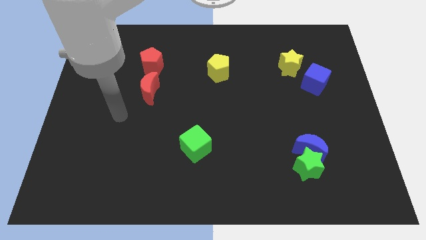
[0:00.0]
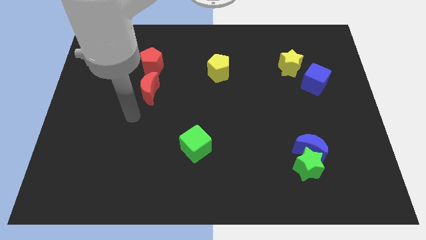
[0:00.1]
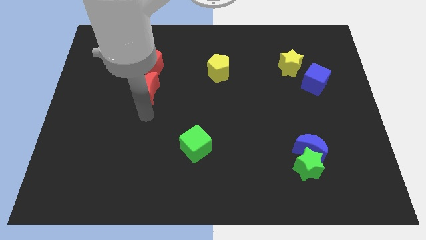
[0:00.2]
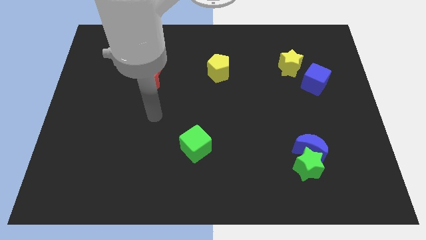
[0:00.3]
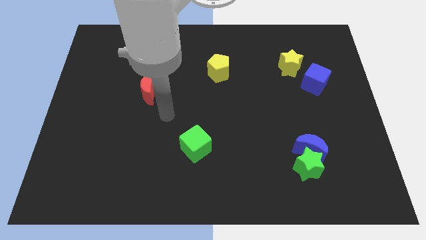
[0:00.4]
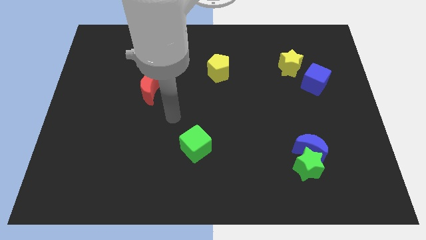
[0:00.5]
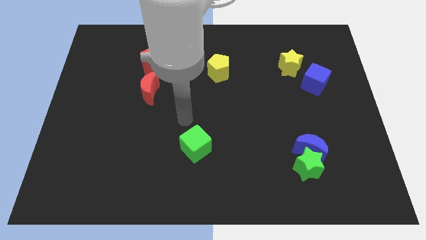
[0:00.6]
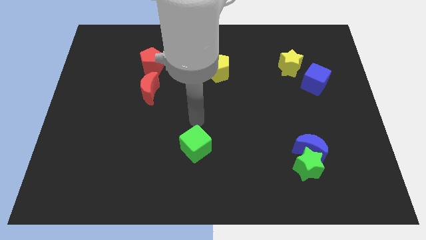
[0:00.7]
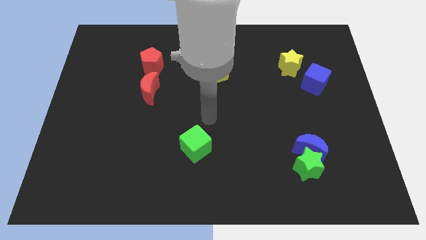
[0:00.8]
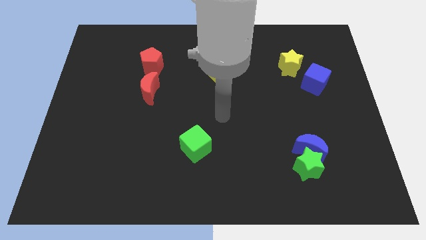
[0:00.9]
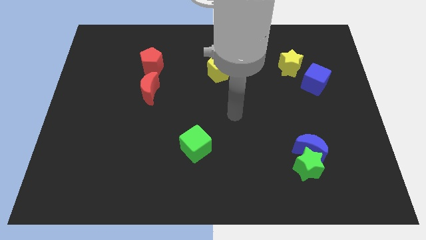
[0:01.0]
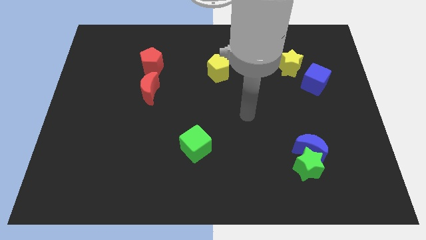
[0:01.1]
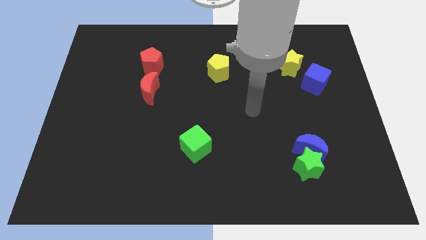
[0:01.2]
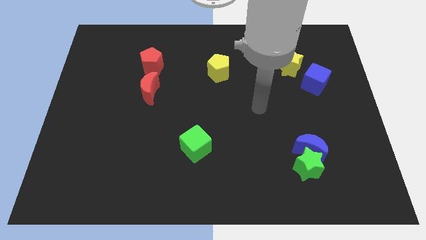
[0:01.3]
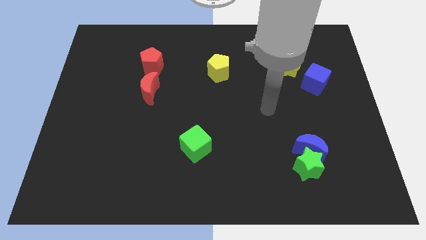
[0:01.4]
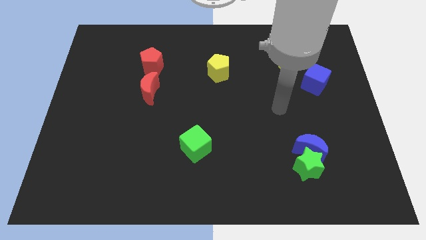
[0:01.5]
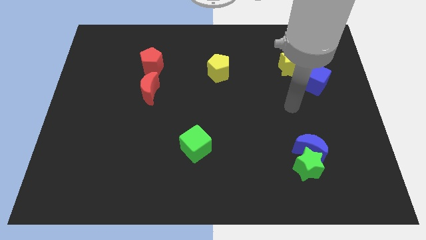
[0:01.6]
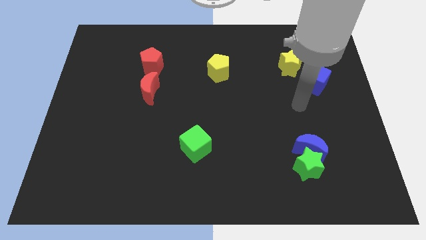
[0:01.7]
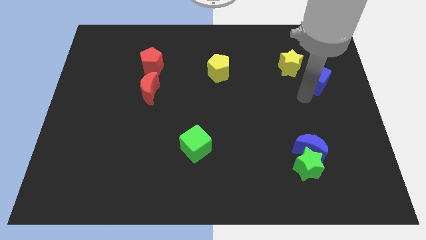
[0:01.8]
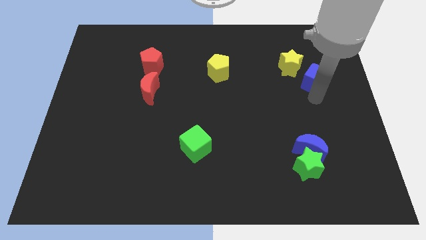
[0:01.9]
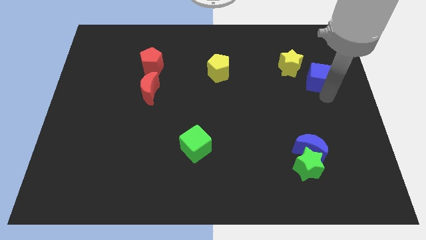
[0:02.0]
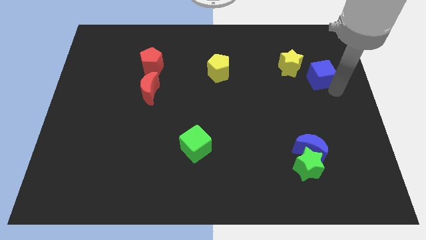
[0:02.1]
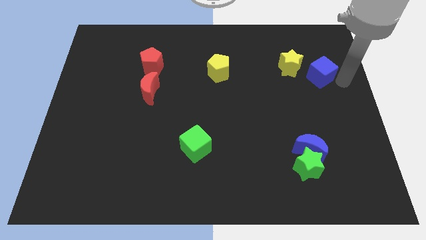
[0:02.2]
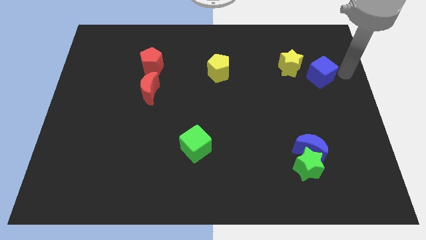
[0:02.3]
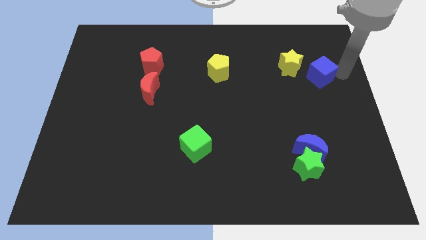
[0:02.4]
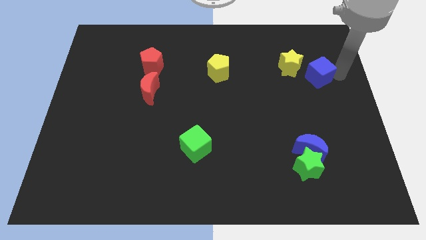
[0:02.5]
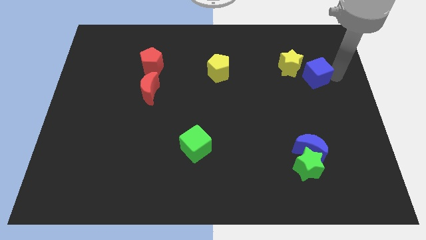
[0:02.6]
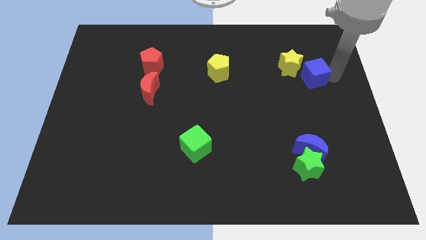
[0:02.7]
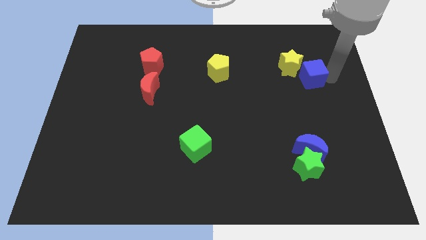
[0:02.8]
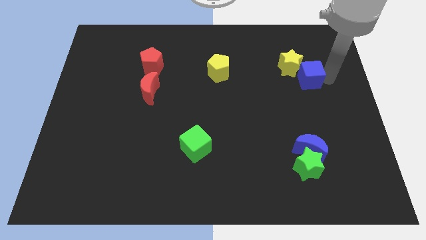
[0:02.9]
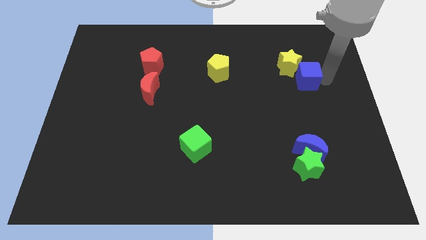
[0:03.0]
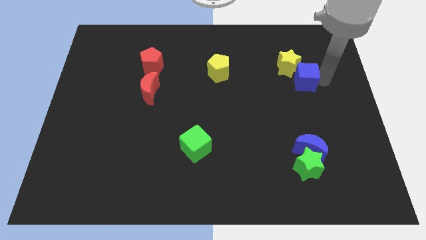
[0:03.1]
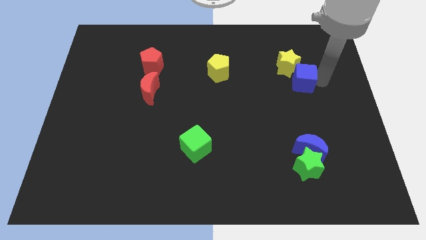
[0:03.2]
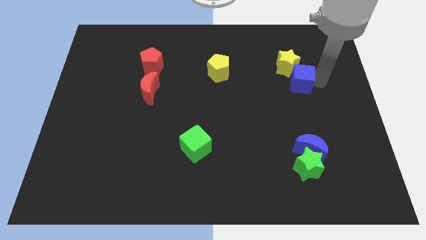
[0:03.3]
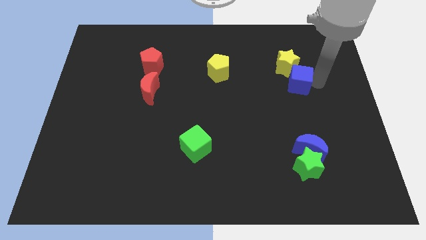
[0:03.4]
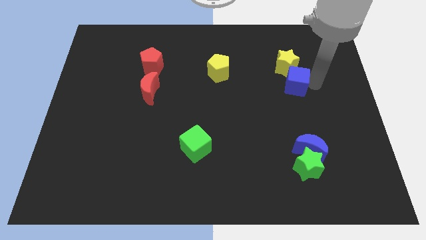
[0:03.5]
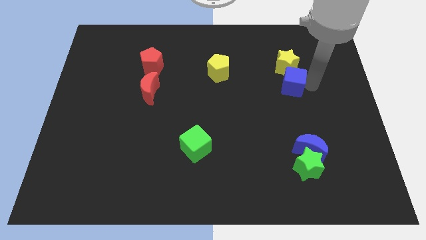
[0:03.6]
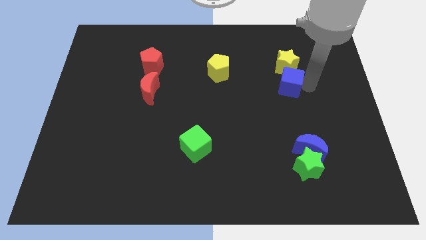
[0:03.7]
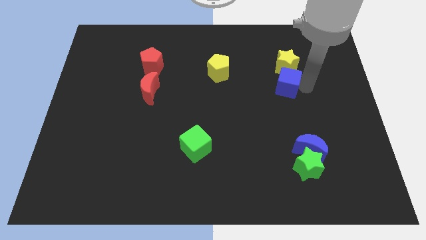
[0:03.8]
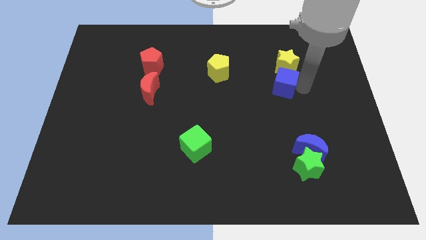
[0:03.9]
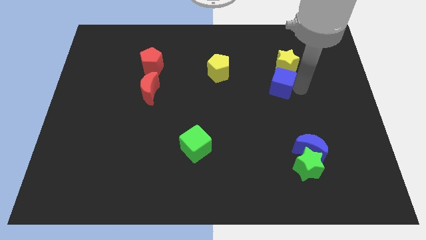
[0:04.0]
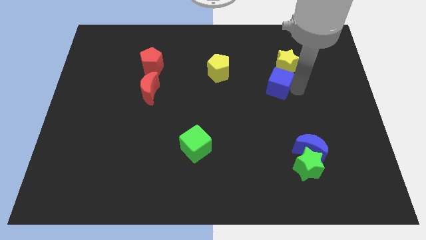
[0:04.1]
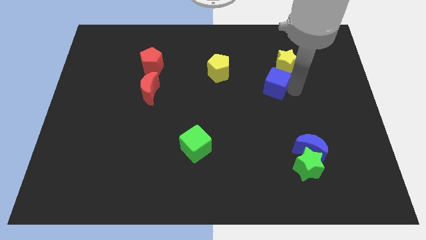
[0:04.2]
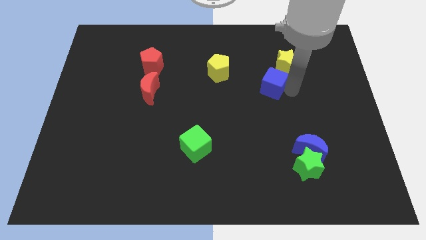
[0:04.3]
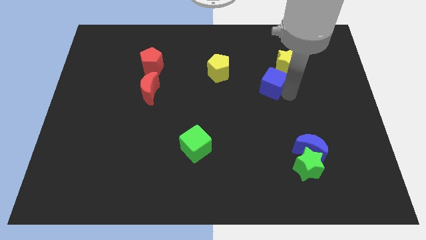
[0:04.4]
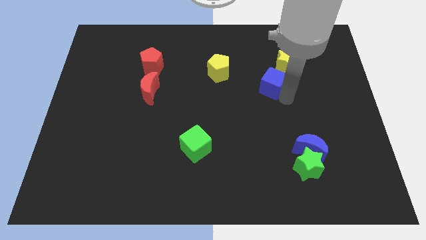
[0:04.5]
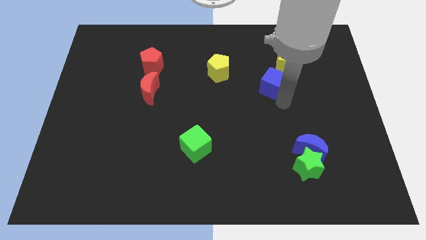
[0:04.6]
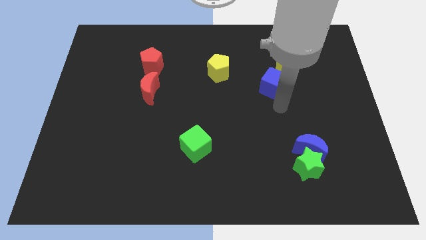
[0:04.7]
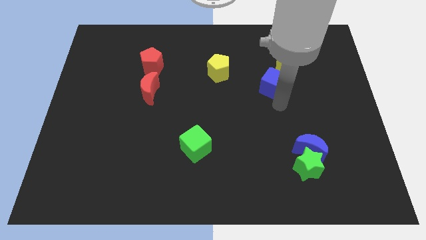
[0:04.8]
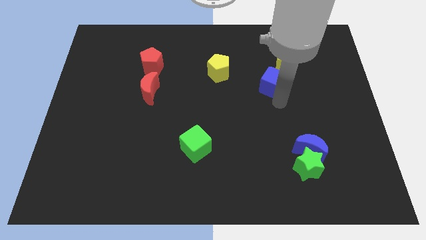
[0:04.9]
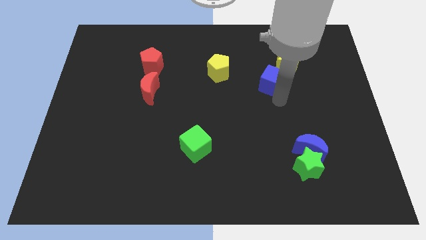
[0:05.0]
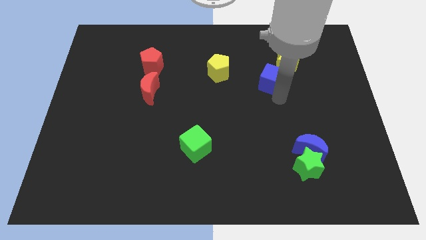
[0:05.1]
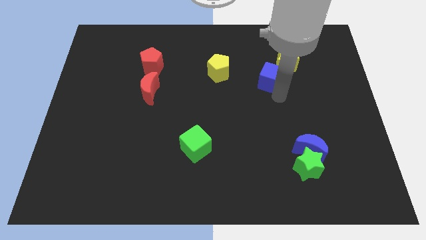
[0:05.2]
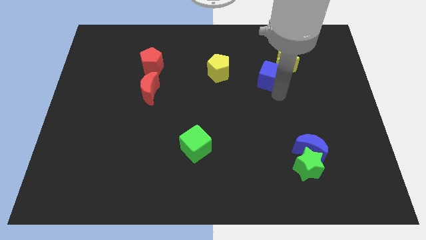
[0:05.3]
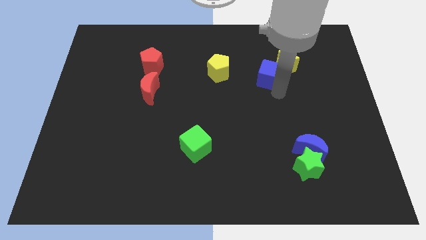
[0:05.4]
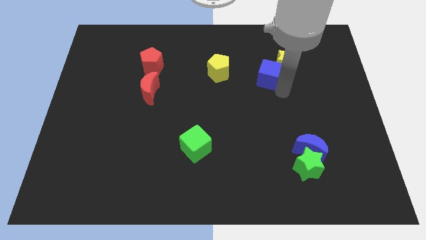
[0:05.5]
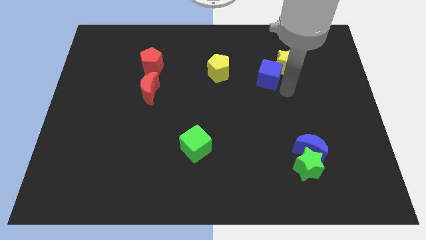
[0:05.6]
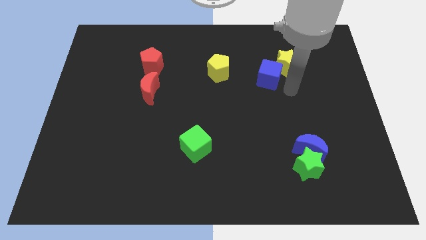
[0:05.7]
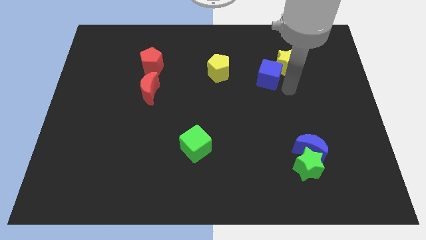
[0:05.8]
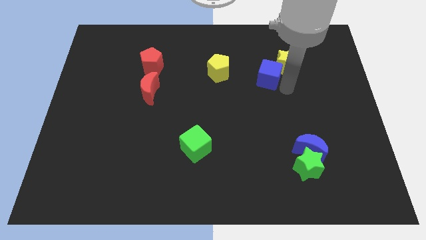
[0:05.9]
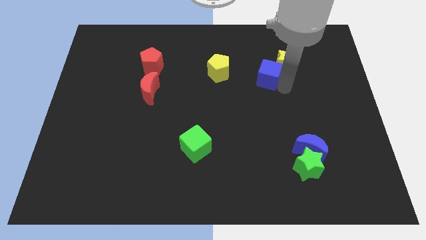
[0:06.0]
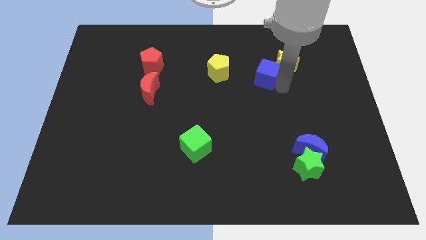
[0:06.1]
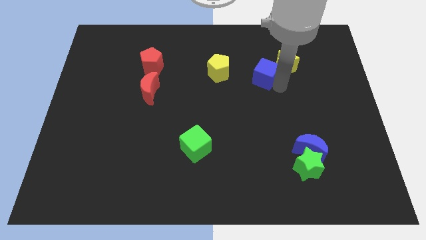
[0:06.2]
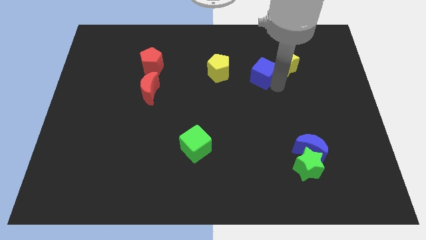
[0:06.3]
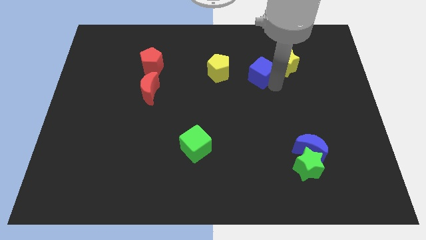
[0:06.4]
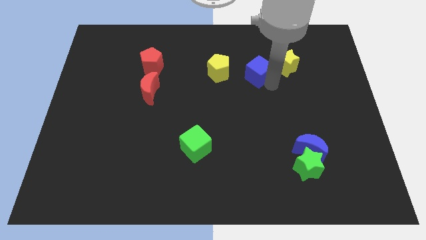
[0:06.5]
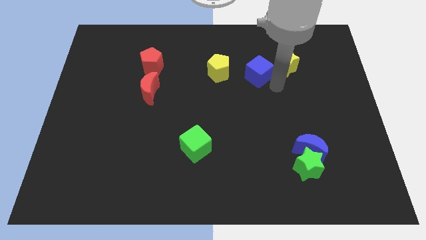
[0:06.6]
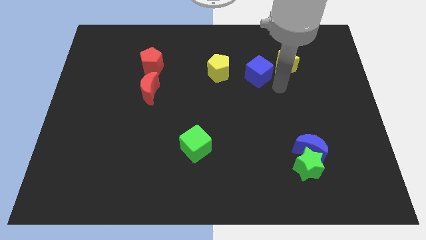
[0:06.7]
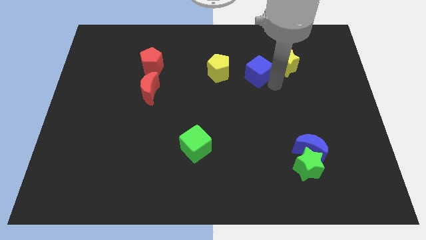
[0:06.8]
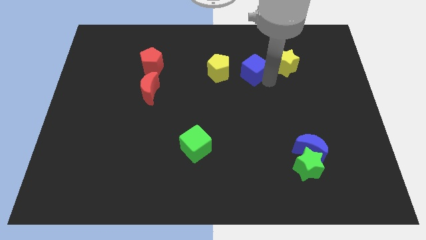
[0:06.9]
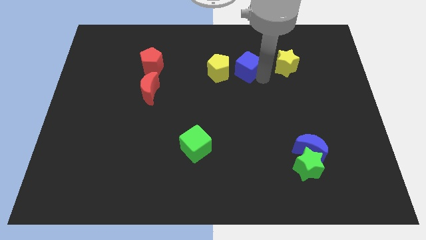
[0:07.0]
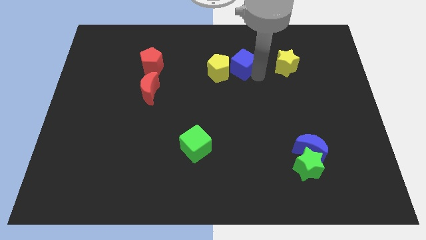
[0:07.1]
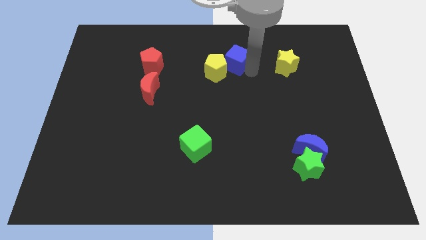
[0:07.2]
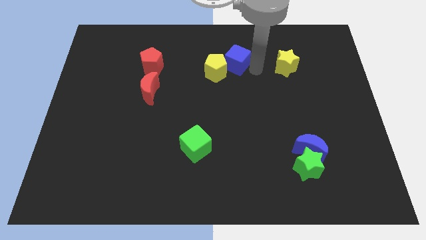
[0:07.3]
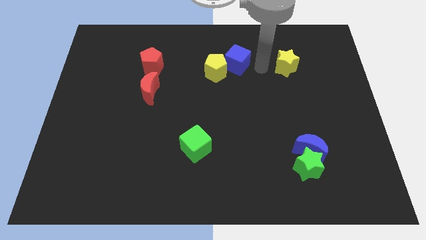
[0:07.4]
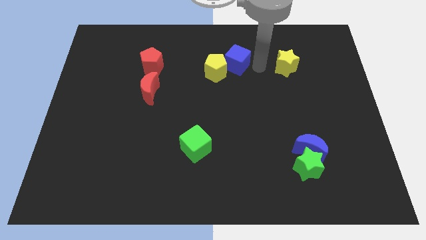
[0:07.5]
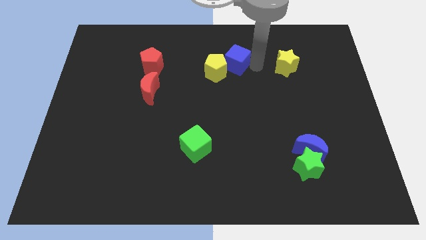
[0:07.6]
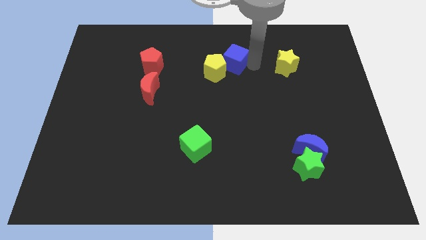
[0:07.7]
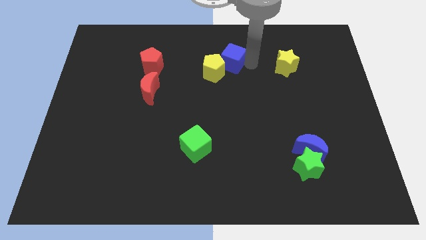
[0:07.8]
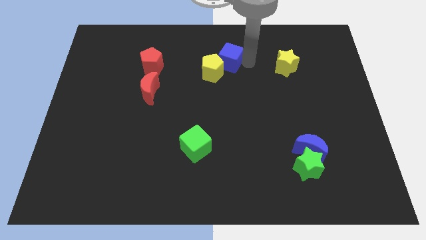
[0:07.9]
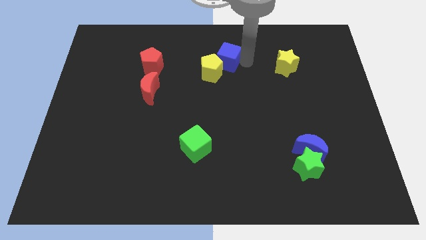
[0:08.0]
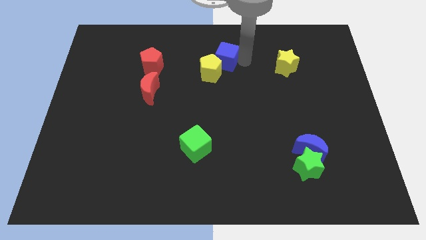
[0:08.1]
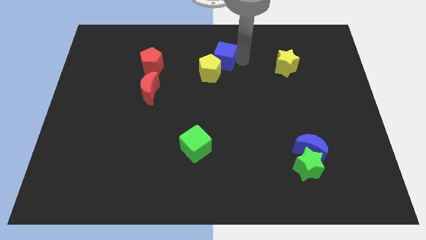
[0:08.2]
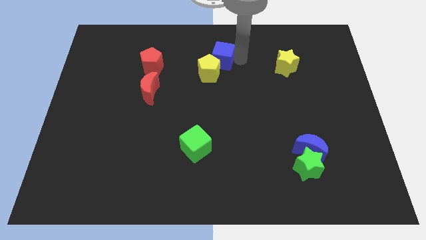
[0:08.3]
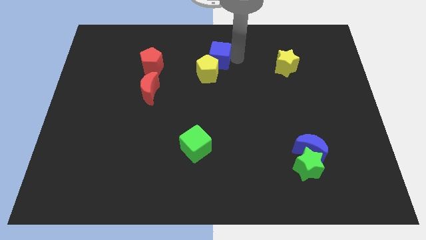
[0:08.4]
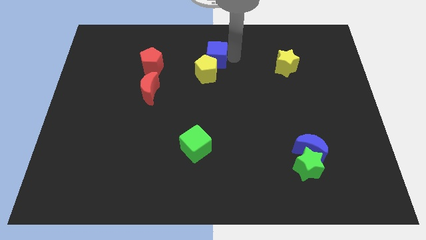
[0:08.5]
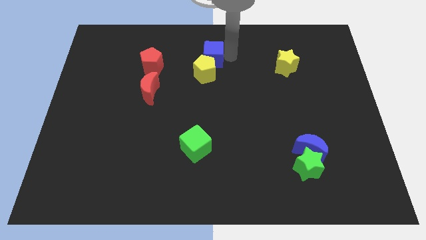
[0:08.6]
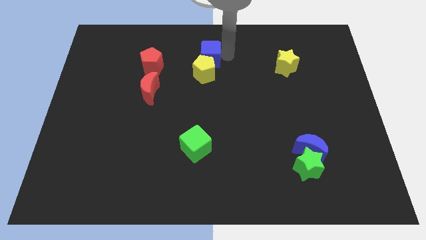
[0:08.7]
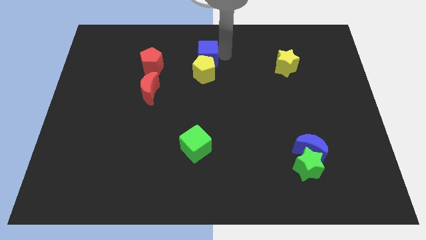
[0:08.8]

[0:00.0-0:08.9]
push the blue cube to the top left of the yellow pentagon
